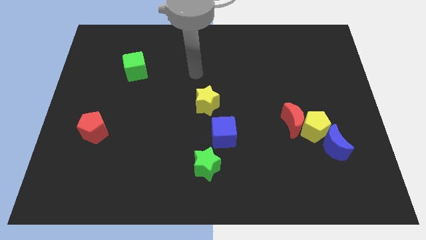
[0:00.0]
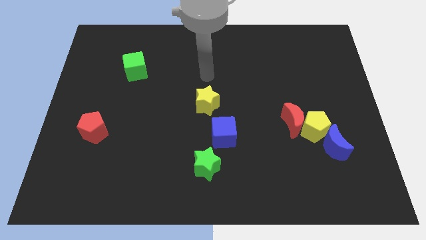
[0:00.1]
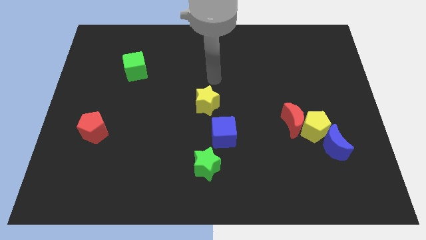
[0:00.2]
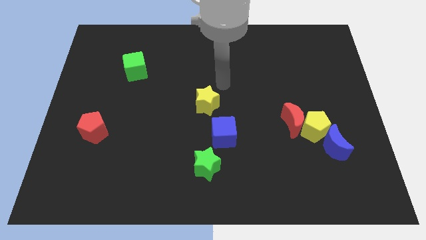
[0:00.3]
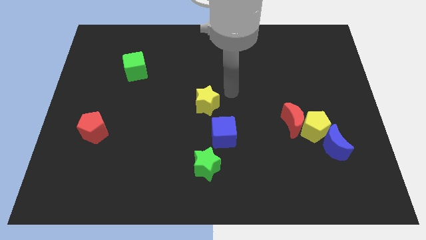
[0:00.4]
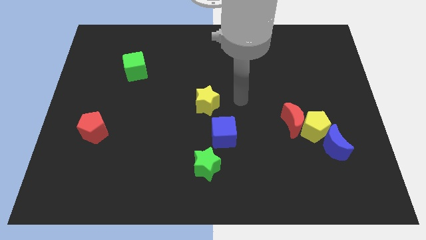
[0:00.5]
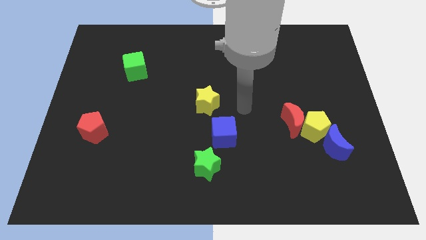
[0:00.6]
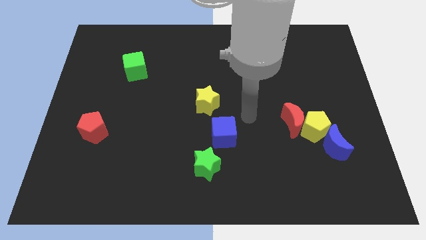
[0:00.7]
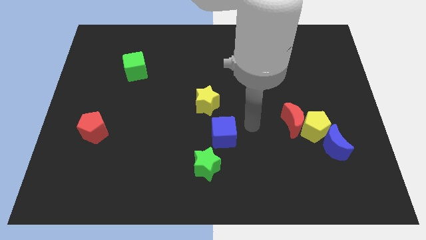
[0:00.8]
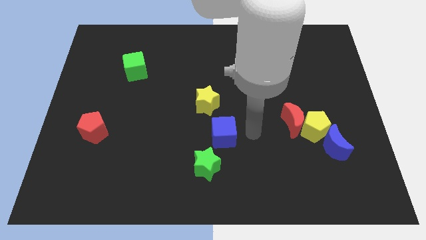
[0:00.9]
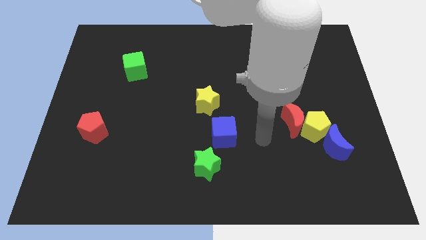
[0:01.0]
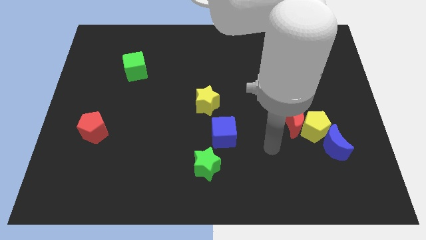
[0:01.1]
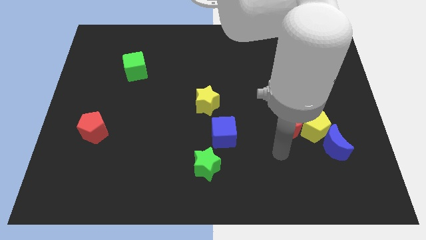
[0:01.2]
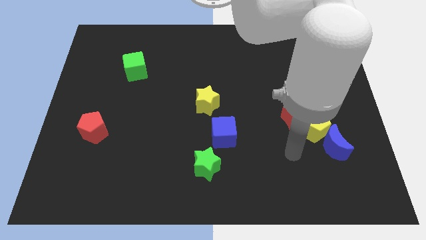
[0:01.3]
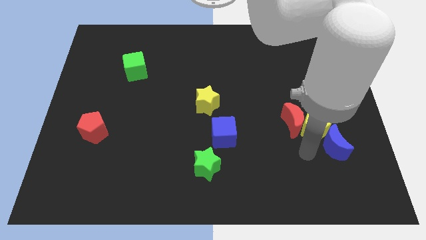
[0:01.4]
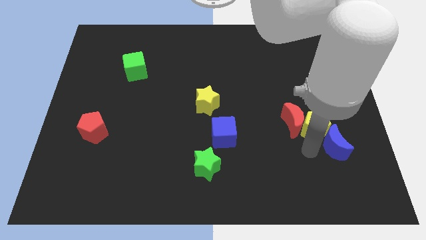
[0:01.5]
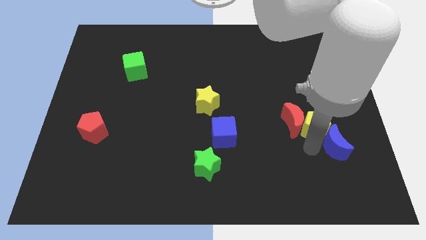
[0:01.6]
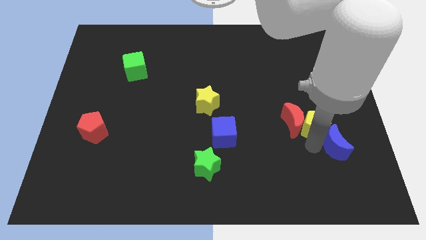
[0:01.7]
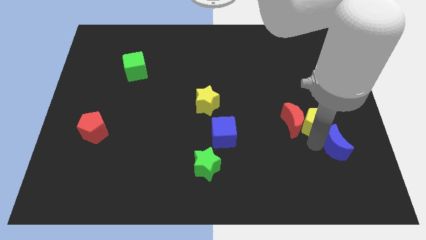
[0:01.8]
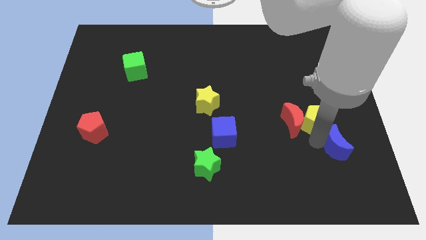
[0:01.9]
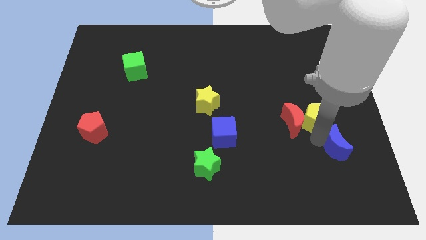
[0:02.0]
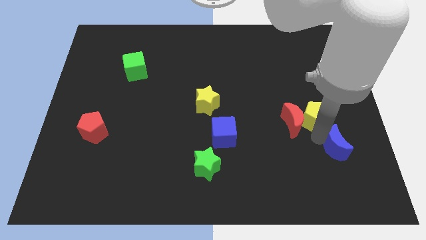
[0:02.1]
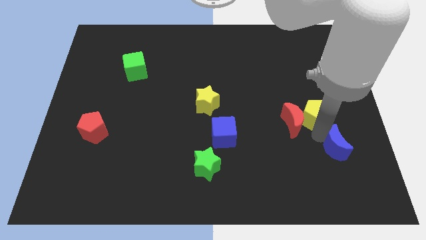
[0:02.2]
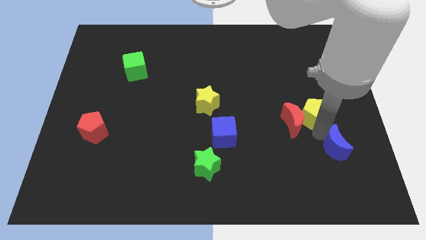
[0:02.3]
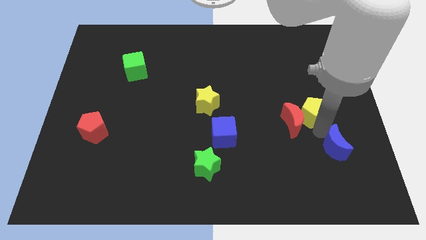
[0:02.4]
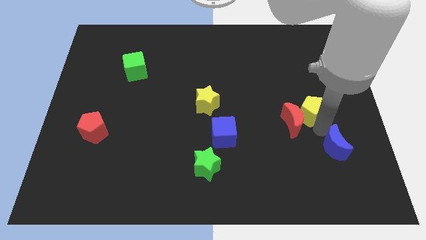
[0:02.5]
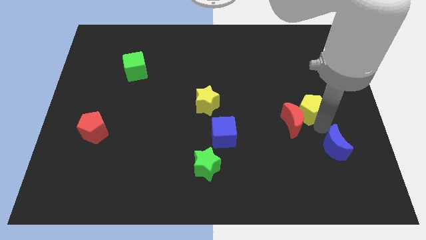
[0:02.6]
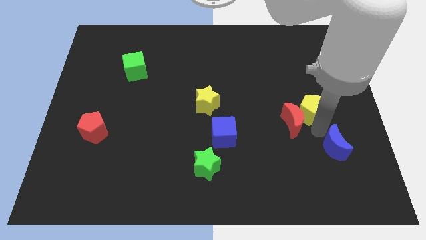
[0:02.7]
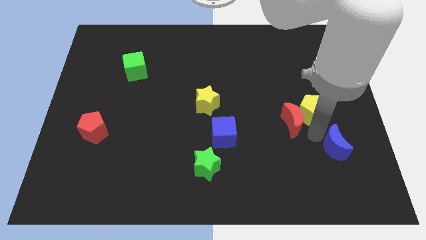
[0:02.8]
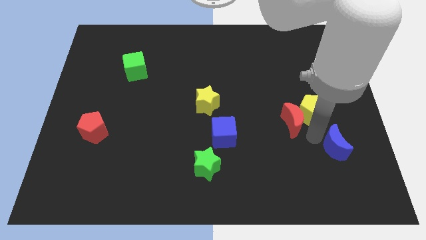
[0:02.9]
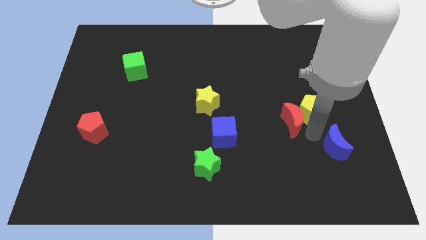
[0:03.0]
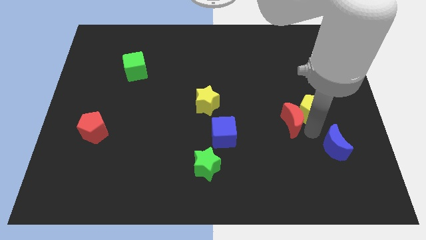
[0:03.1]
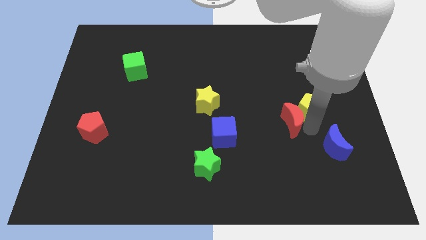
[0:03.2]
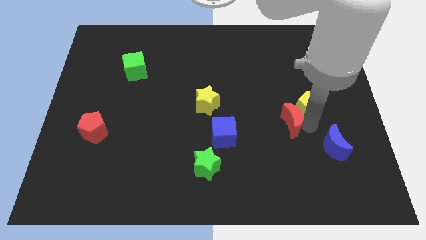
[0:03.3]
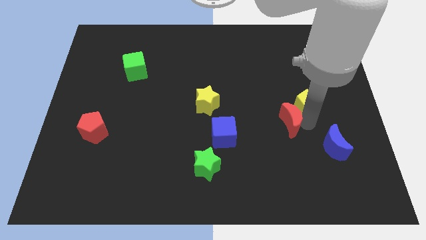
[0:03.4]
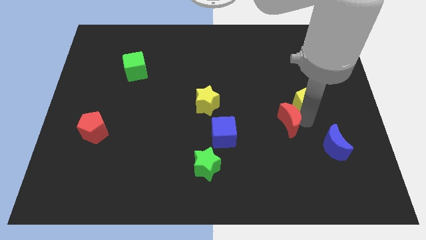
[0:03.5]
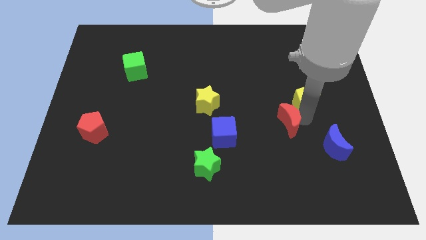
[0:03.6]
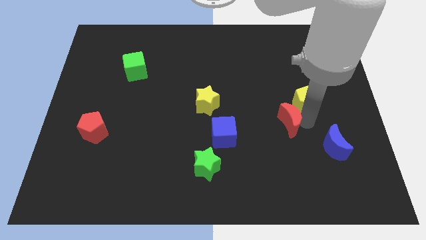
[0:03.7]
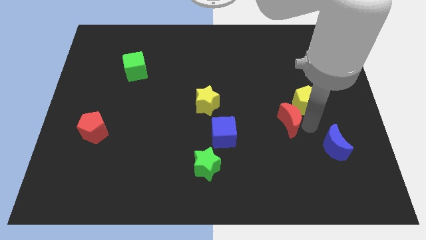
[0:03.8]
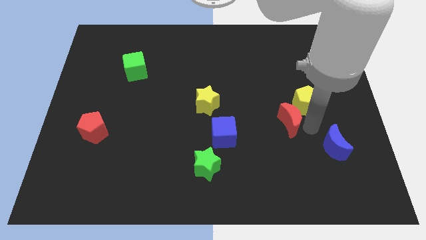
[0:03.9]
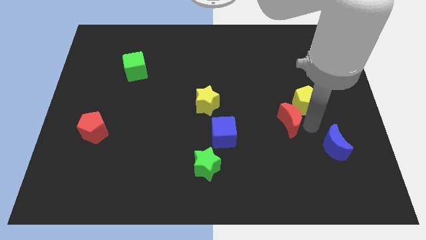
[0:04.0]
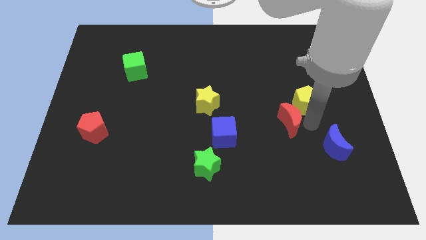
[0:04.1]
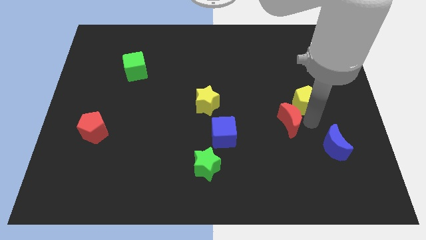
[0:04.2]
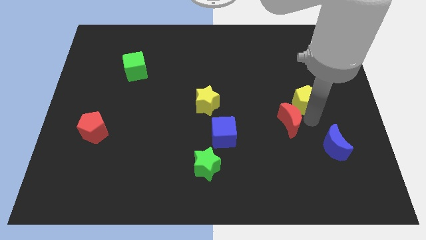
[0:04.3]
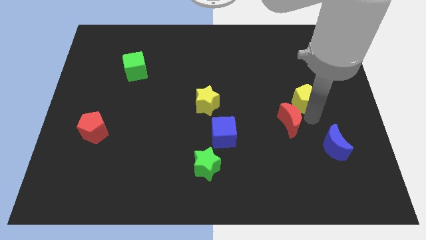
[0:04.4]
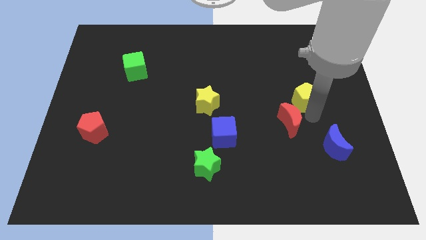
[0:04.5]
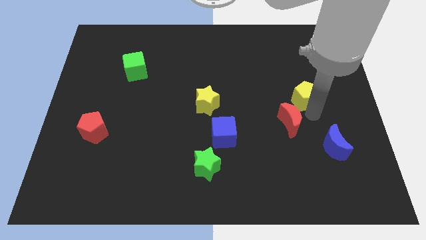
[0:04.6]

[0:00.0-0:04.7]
pull the yellow pentagon apart from the red moon and blue moon

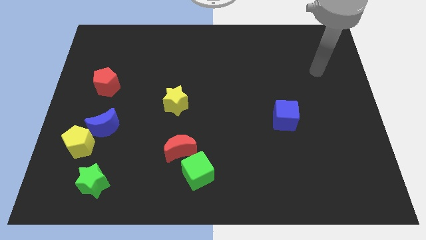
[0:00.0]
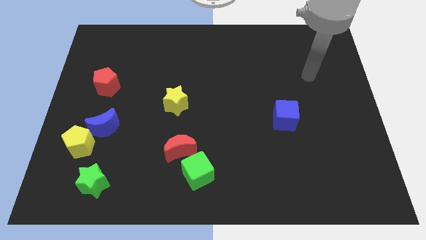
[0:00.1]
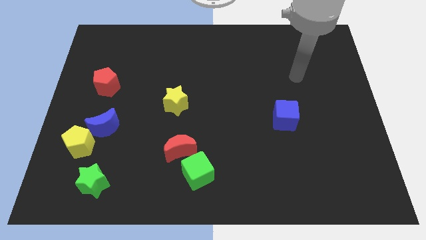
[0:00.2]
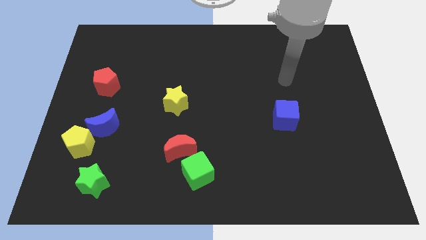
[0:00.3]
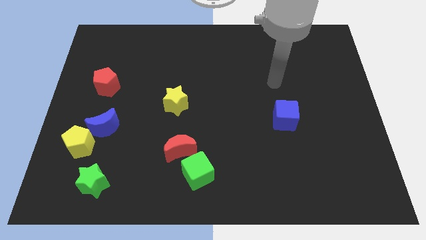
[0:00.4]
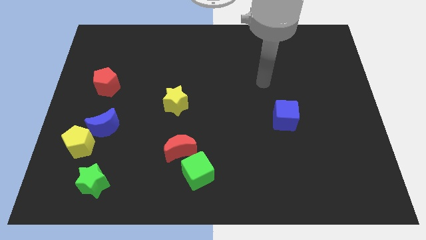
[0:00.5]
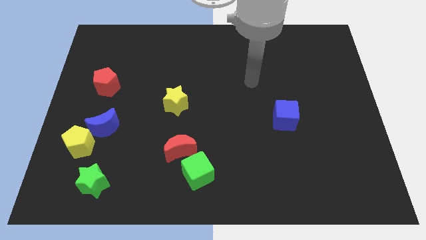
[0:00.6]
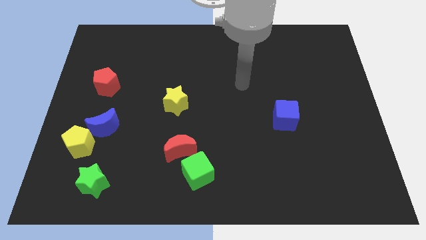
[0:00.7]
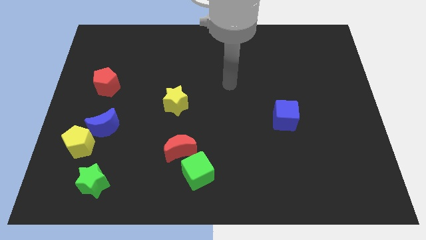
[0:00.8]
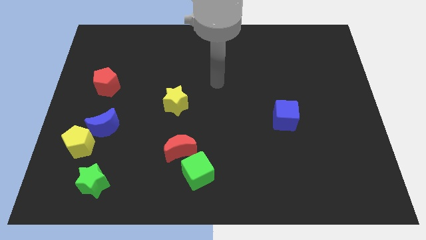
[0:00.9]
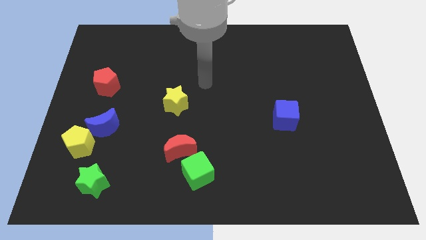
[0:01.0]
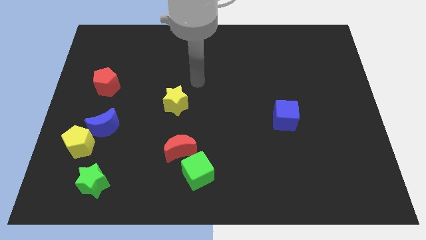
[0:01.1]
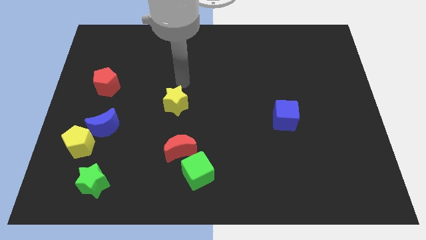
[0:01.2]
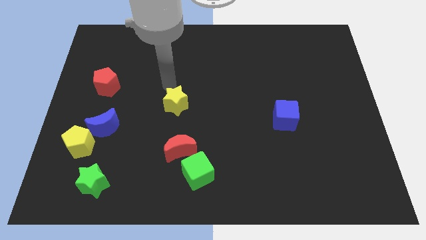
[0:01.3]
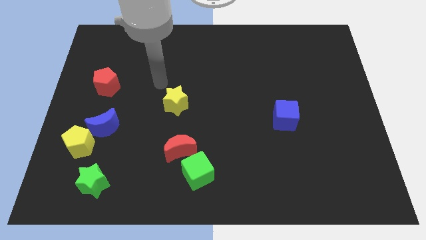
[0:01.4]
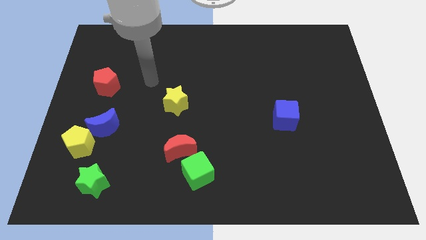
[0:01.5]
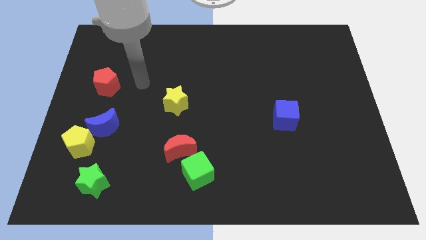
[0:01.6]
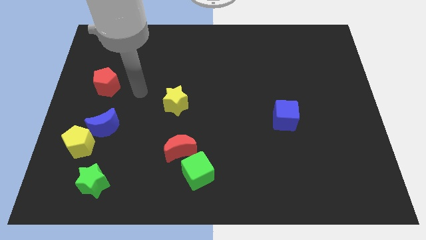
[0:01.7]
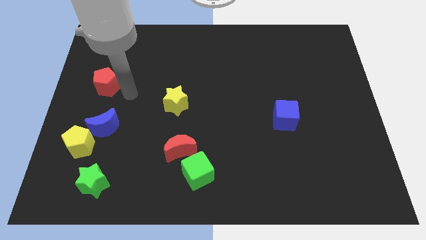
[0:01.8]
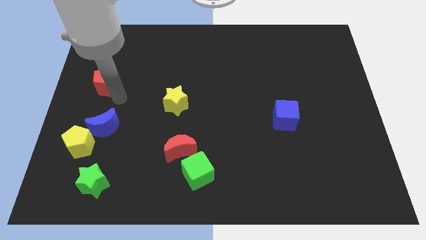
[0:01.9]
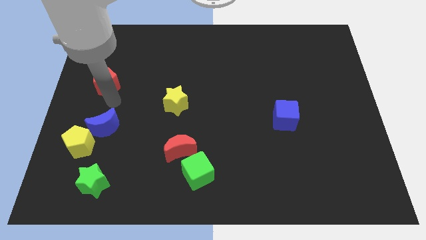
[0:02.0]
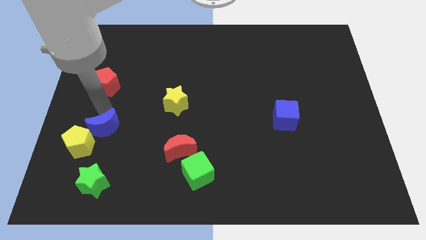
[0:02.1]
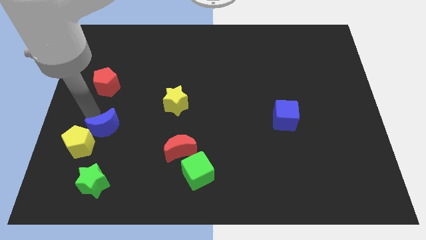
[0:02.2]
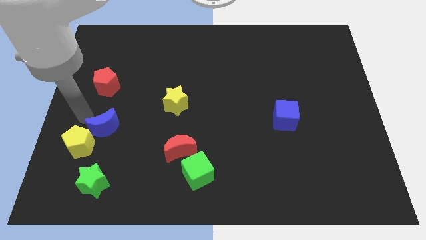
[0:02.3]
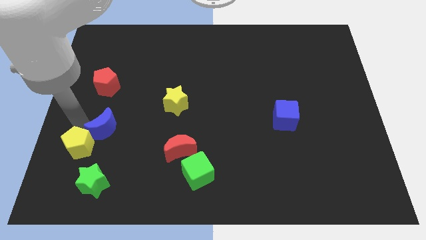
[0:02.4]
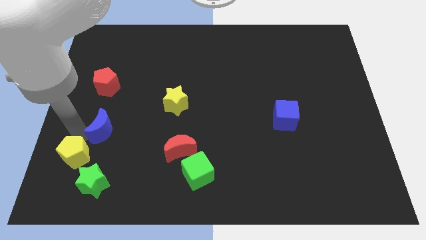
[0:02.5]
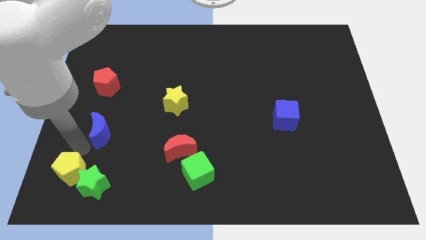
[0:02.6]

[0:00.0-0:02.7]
separate the blue moon from the yellow pentagon

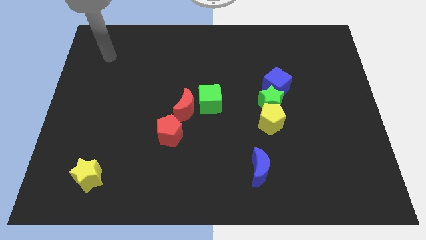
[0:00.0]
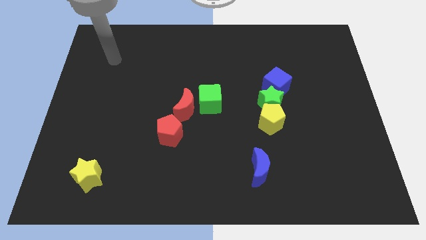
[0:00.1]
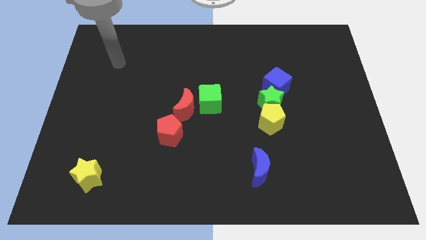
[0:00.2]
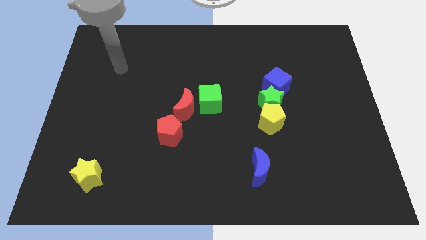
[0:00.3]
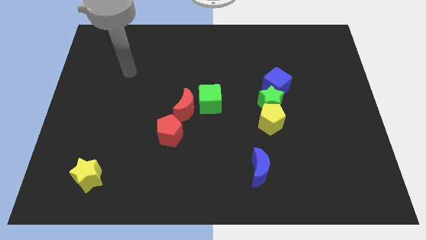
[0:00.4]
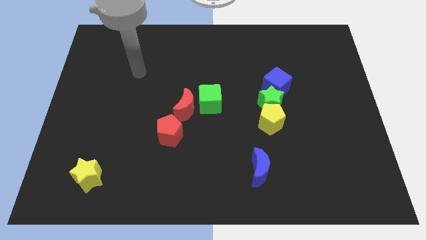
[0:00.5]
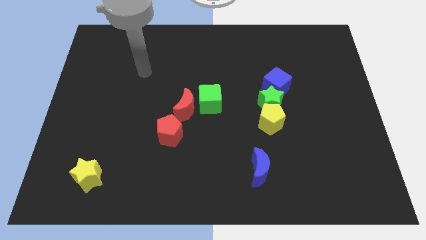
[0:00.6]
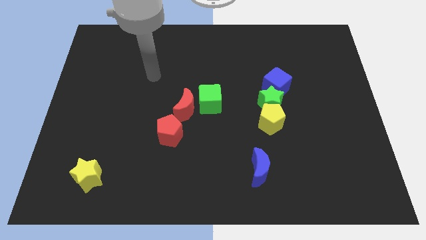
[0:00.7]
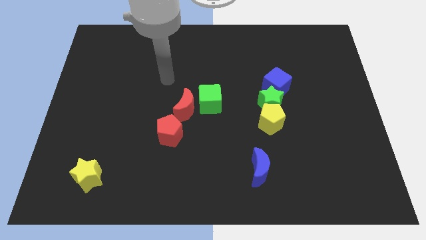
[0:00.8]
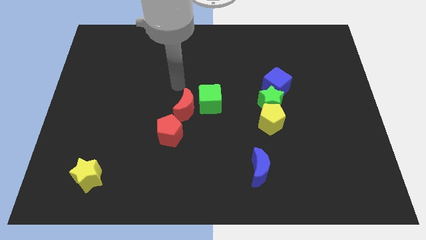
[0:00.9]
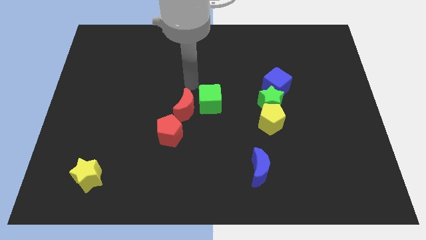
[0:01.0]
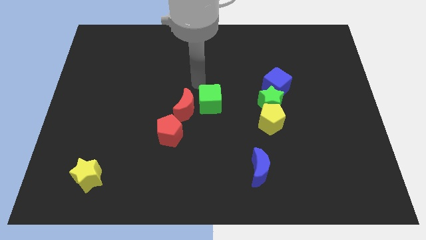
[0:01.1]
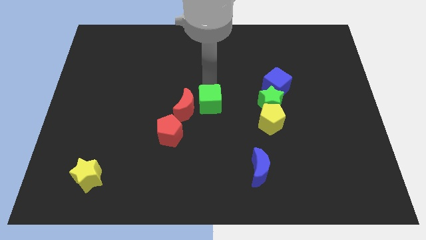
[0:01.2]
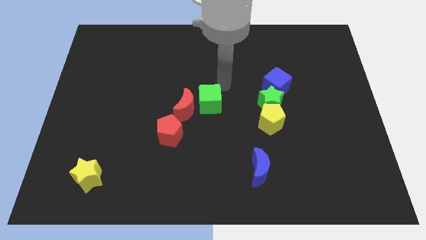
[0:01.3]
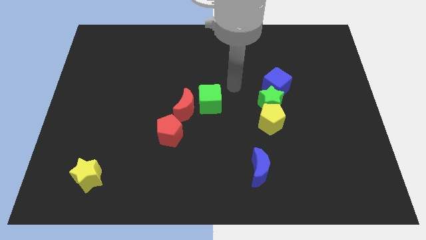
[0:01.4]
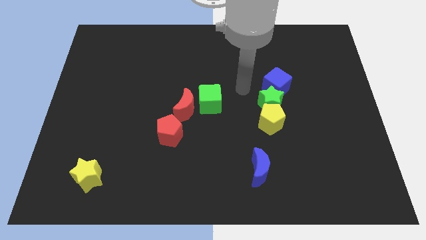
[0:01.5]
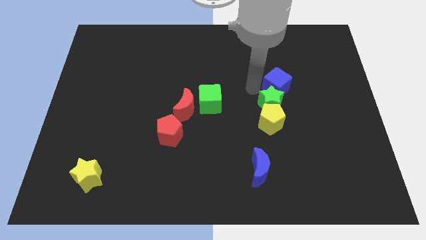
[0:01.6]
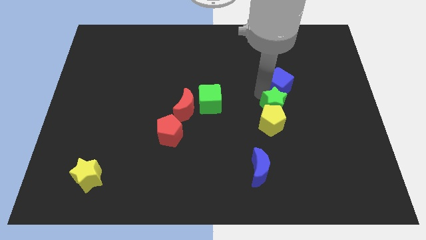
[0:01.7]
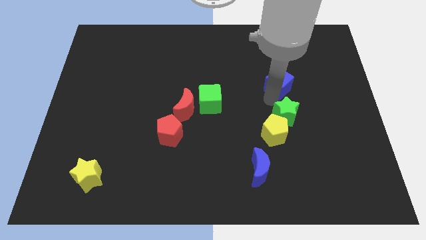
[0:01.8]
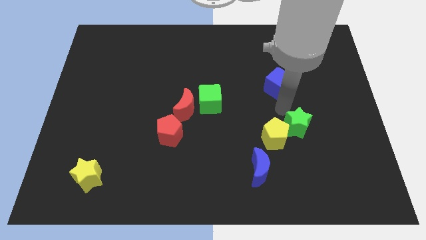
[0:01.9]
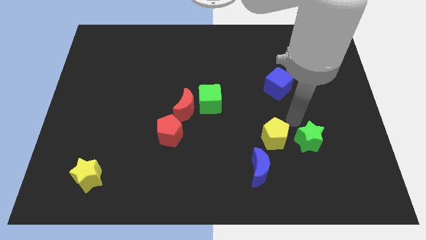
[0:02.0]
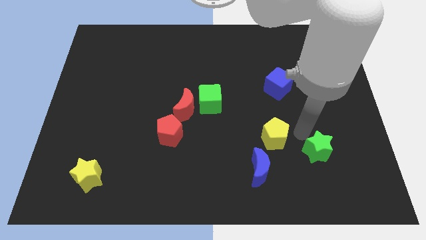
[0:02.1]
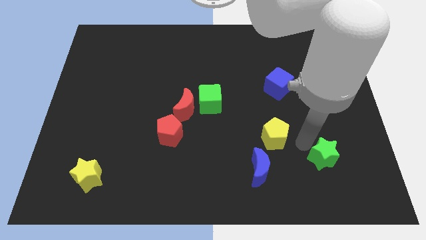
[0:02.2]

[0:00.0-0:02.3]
pull the yellow pentagon apart from the green star
